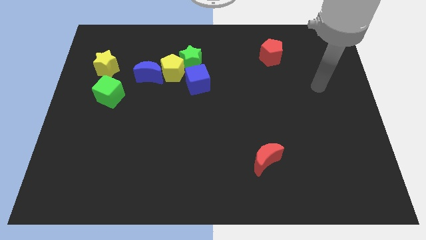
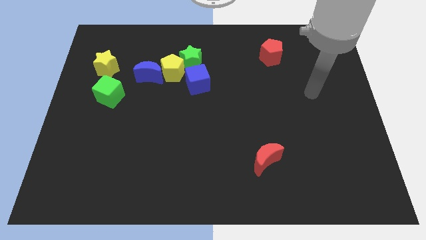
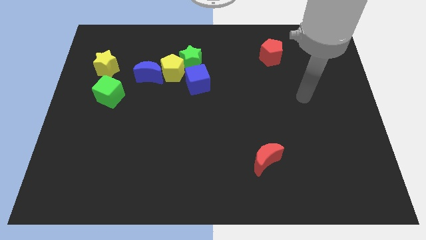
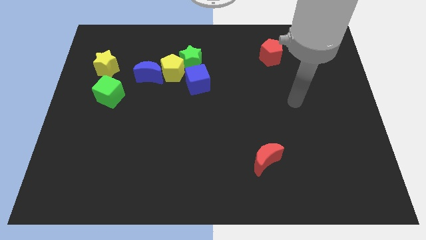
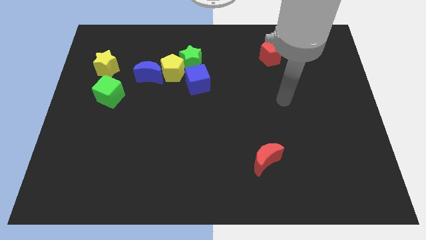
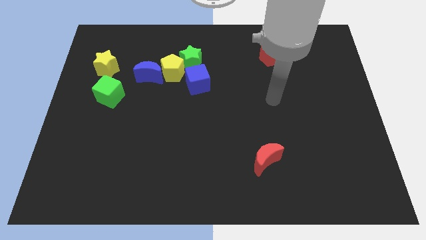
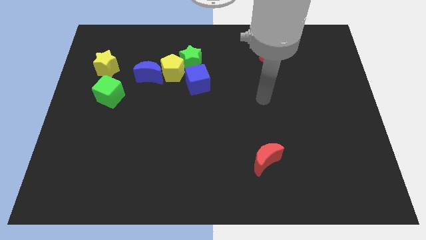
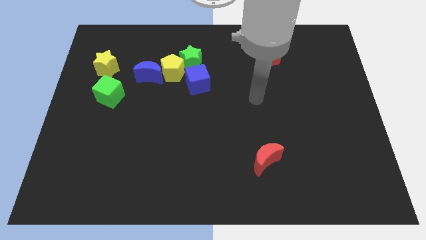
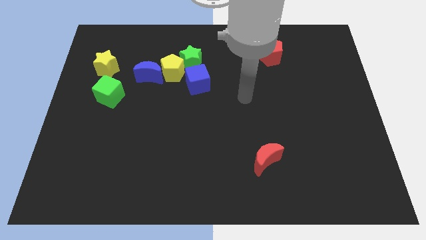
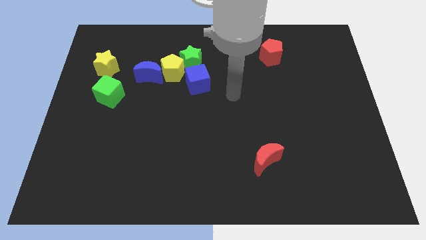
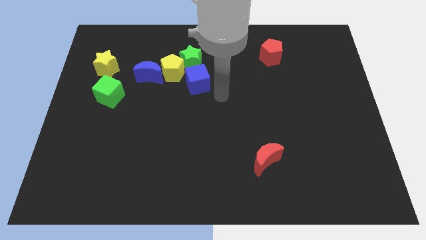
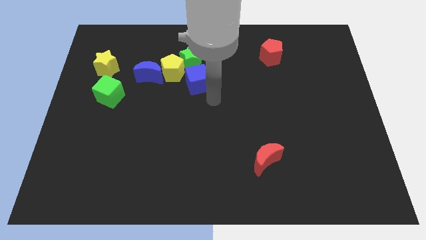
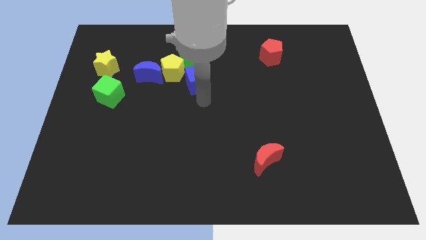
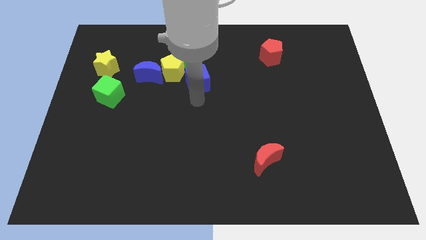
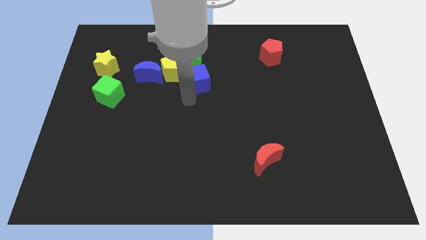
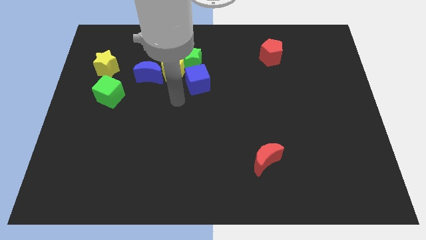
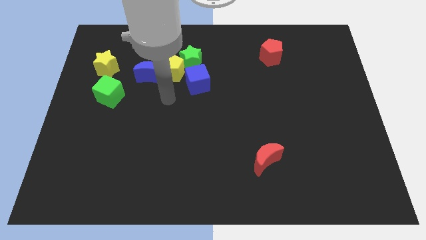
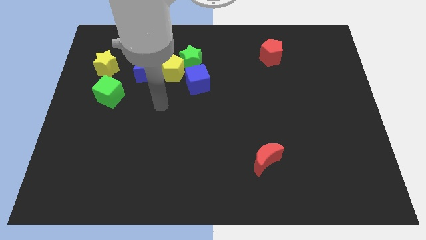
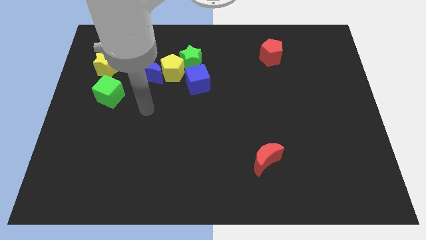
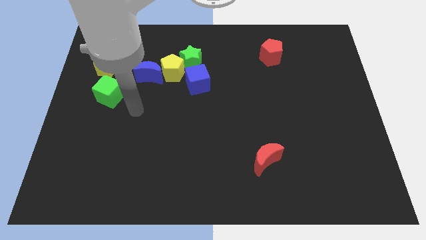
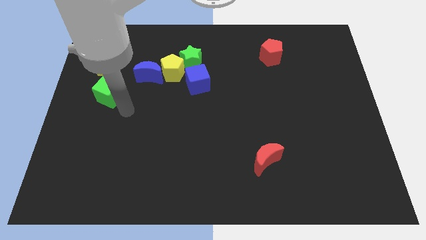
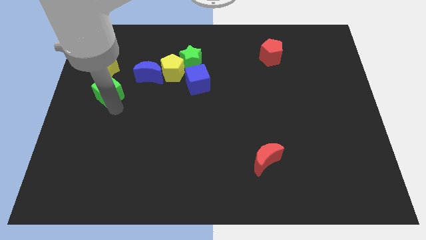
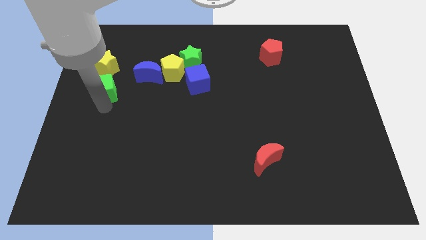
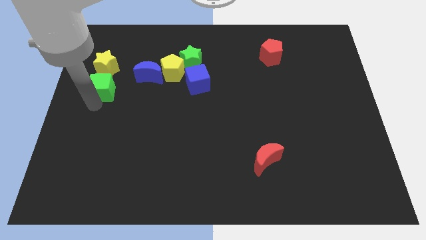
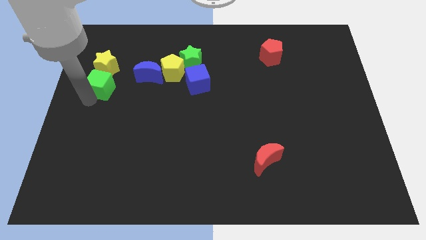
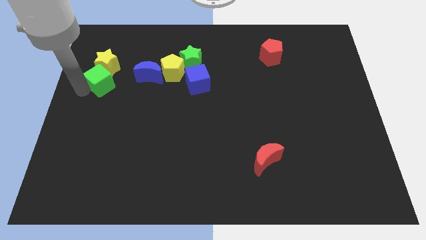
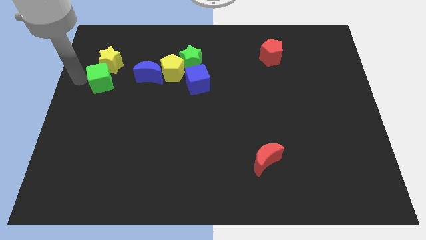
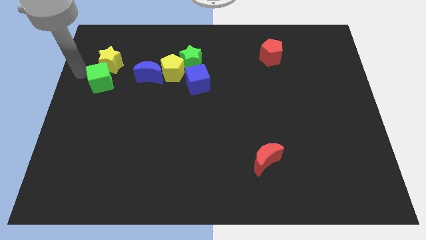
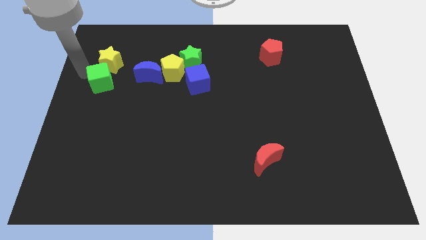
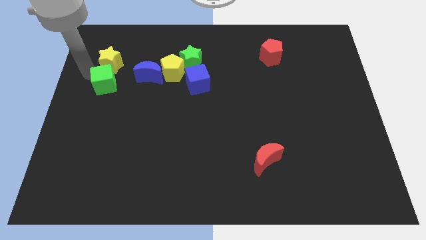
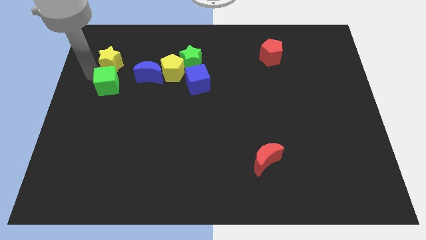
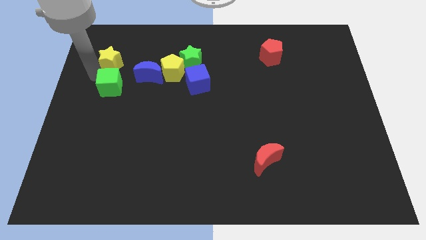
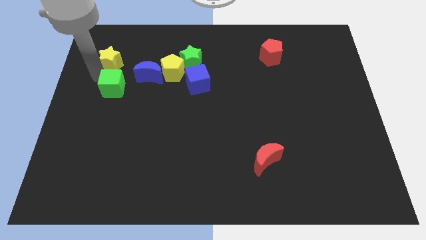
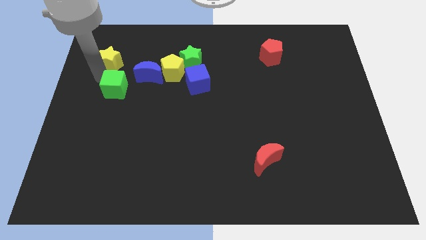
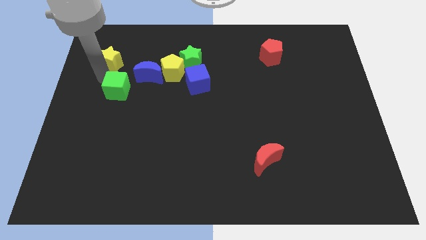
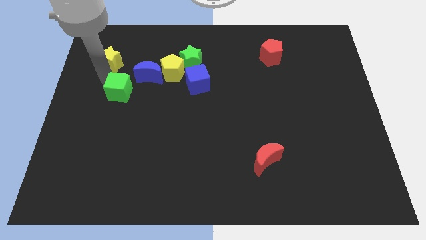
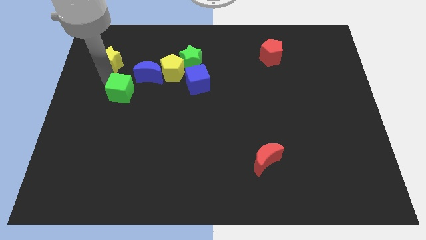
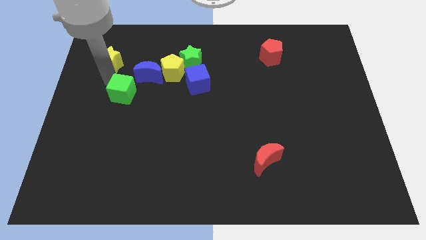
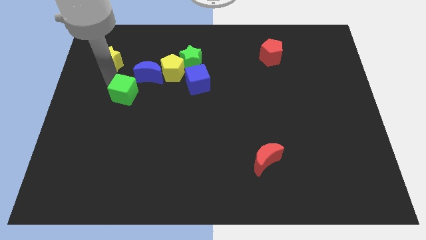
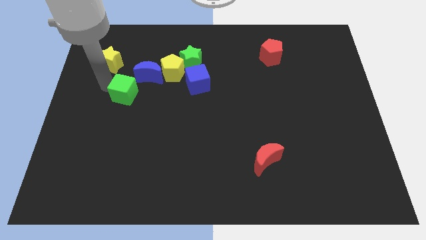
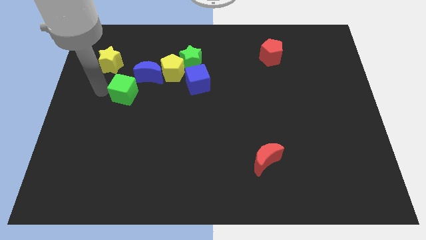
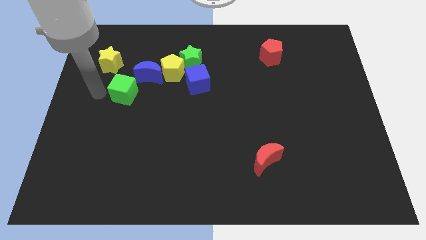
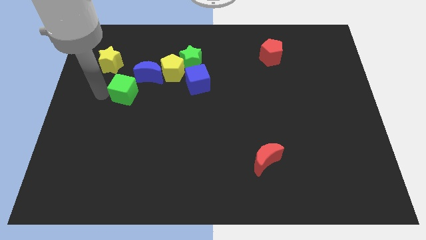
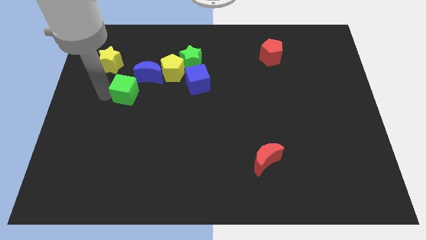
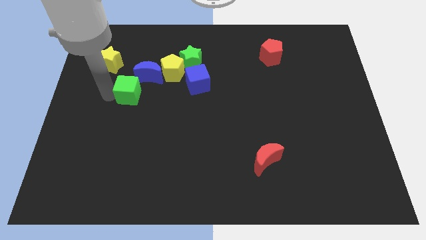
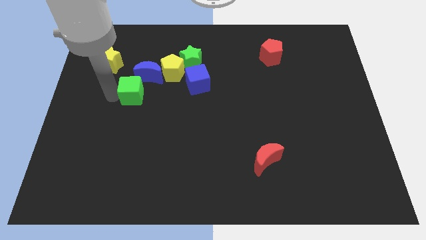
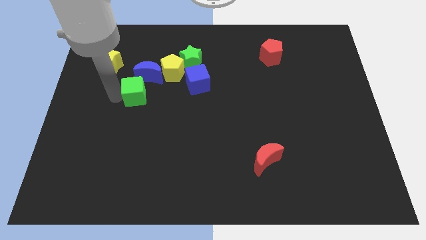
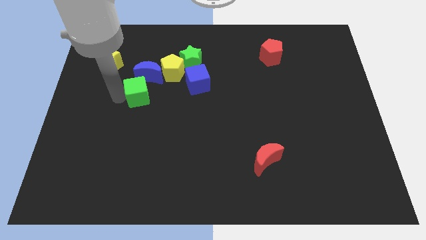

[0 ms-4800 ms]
slightly slide the green cube to the right

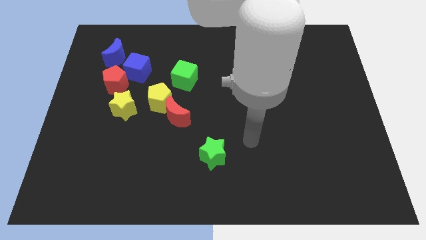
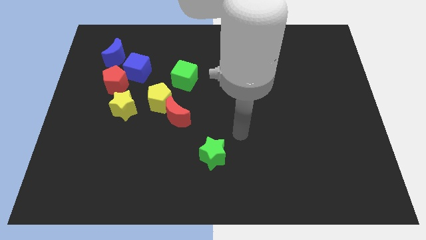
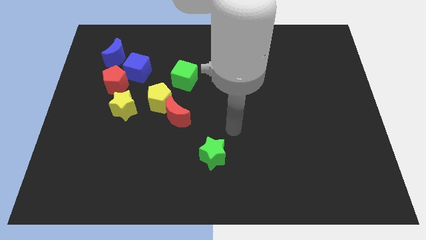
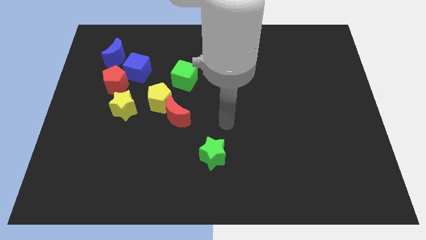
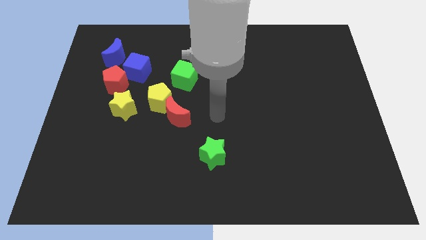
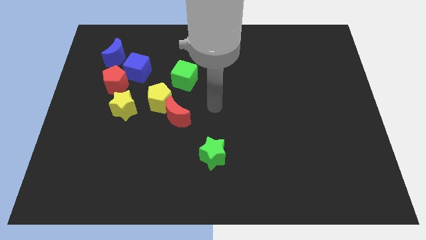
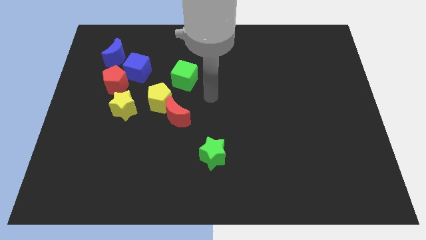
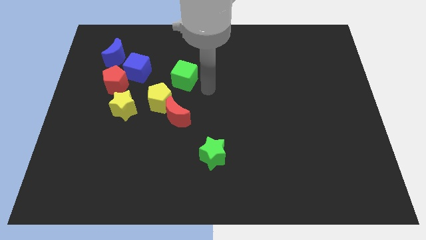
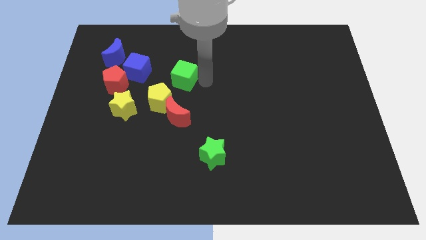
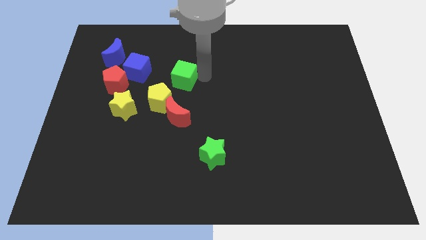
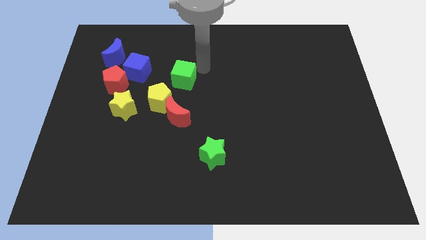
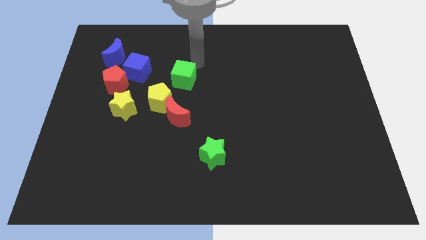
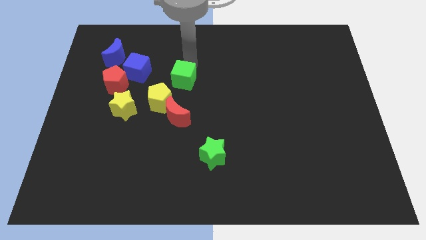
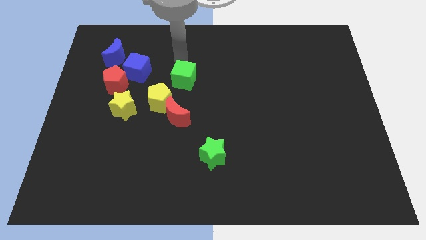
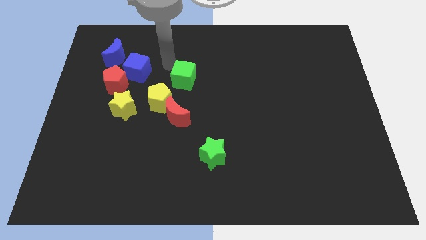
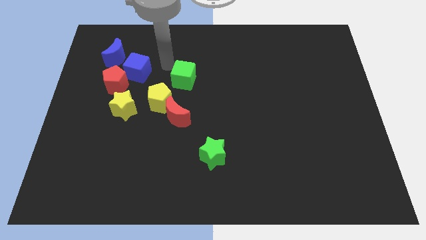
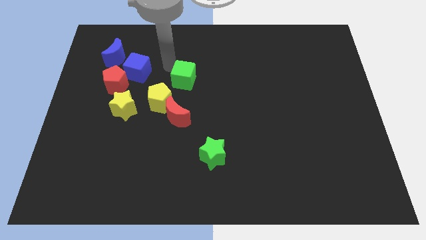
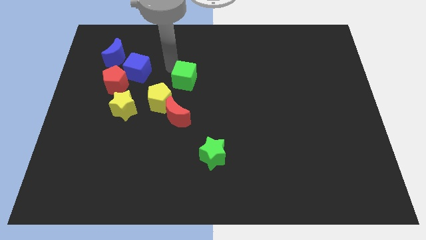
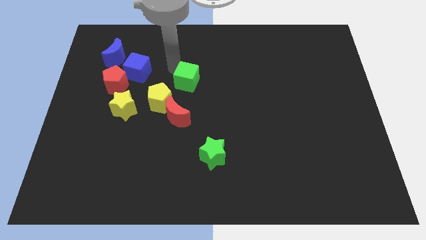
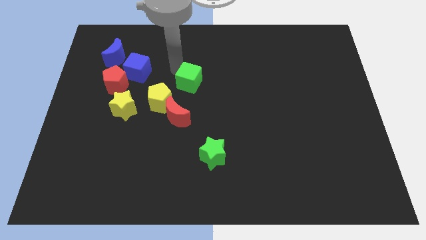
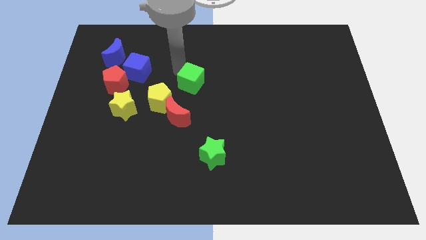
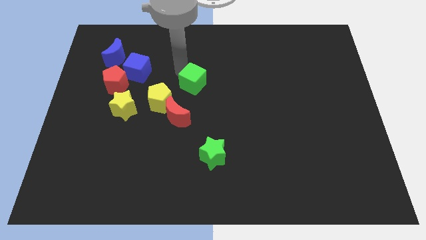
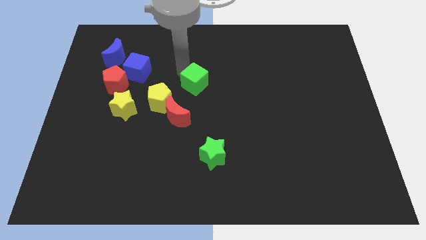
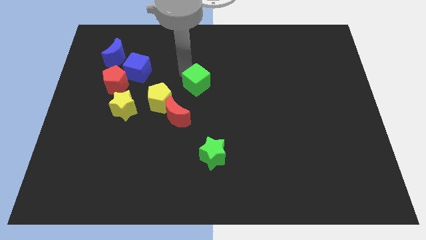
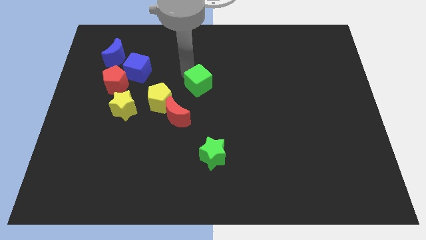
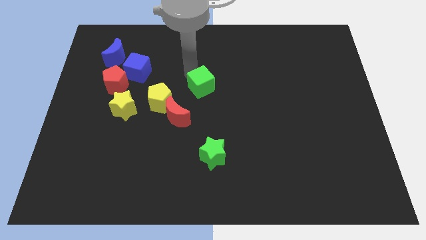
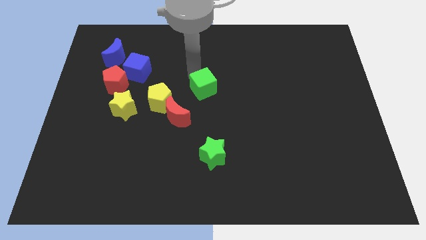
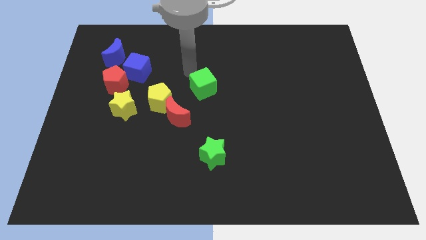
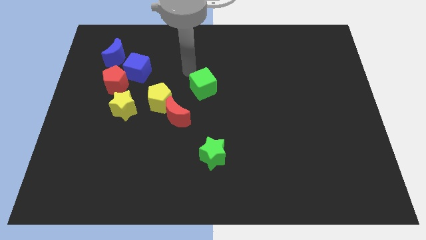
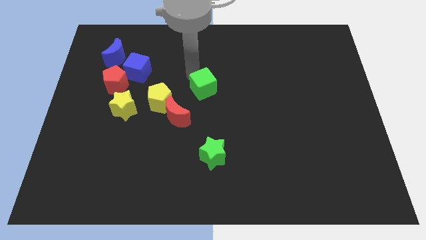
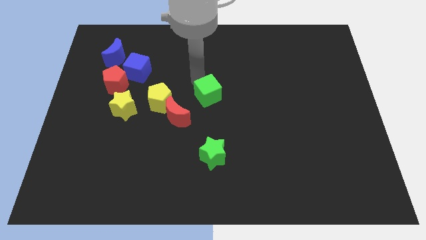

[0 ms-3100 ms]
slide the green cube a bit diagonally down and to the right

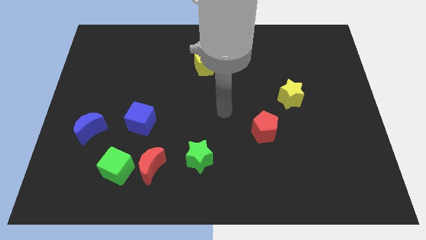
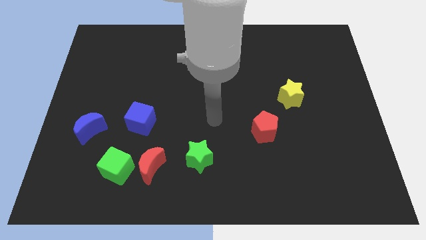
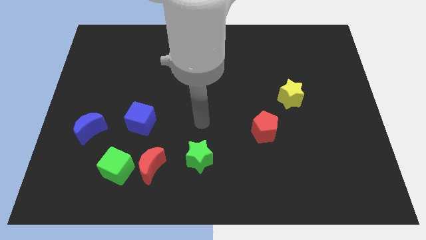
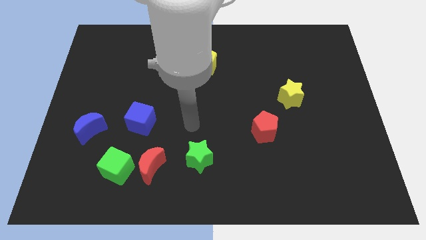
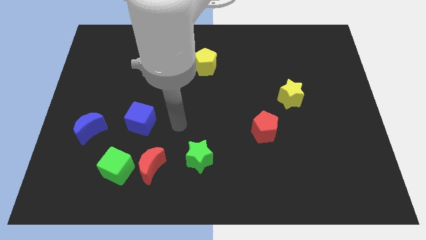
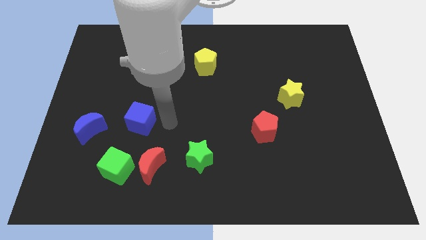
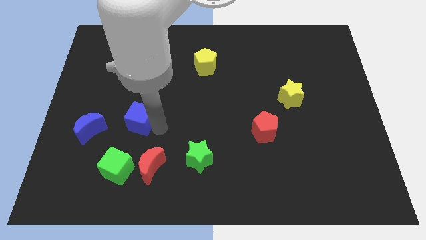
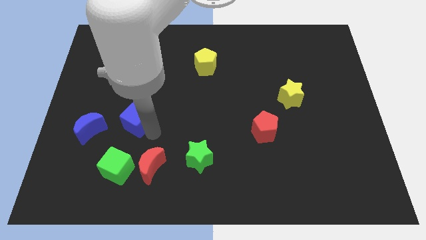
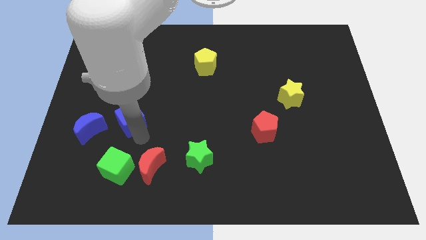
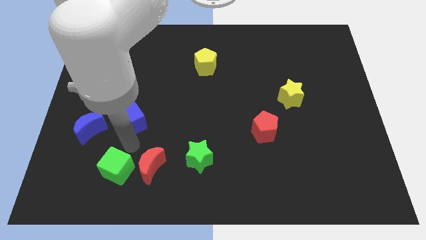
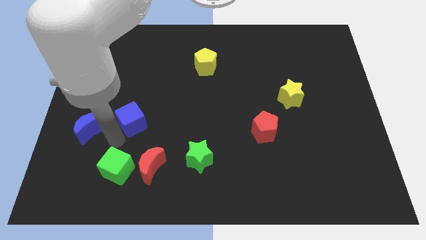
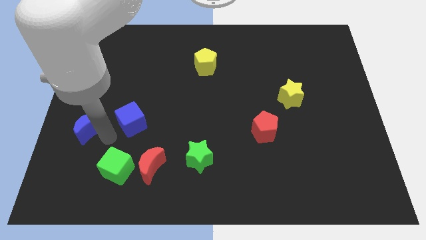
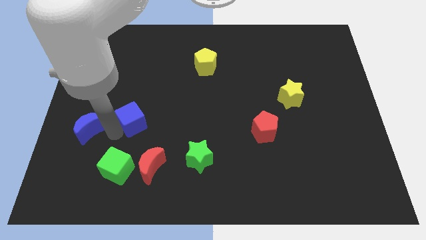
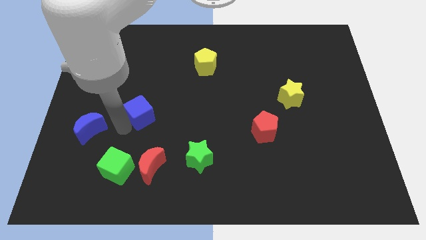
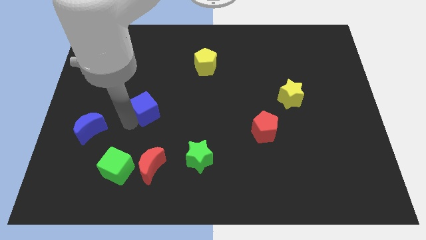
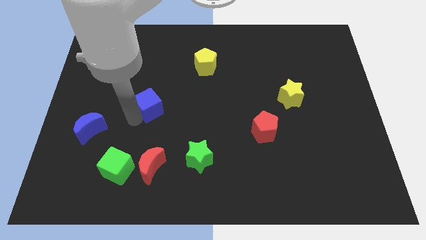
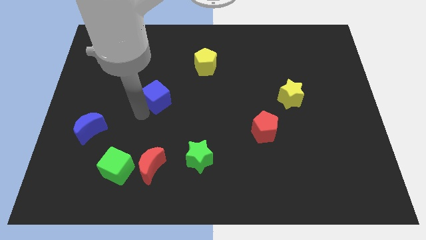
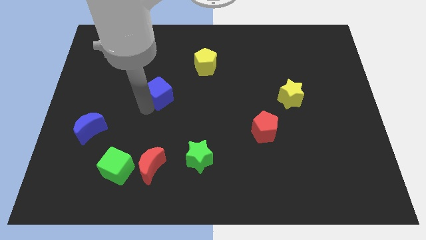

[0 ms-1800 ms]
slightly push the blue cube upwards and to the right diagonally
